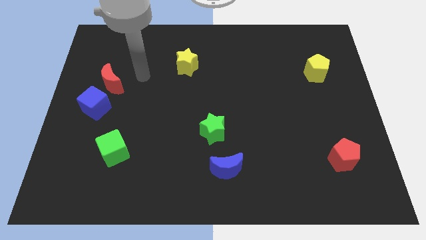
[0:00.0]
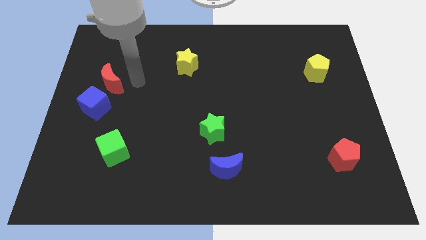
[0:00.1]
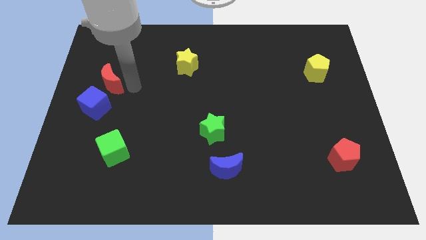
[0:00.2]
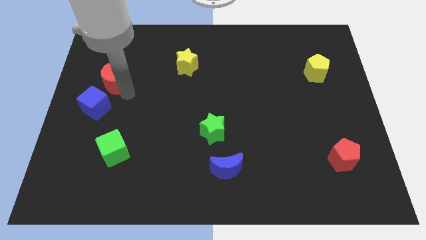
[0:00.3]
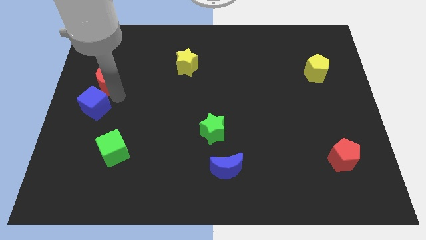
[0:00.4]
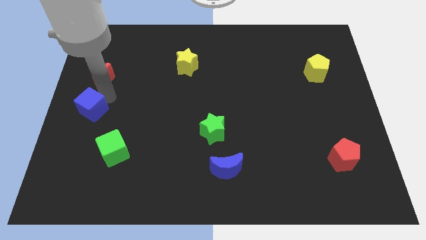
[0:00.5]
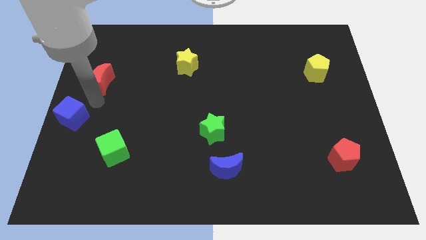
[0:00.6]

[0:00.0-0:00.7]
move the red moon away from the blue cube

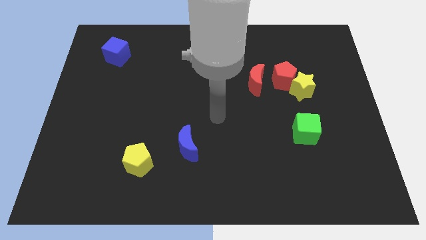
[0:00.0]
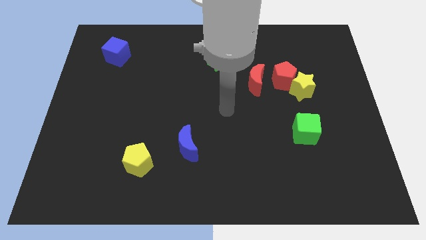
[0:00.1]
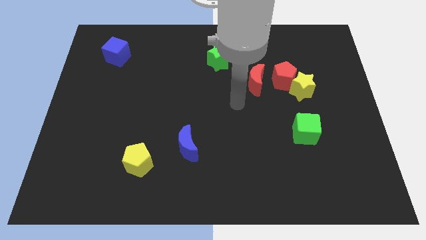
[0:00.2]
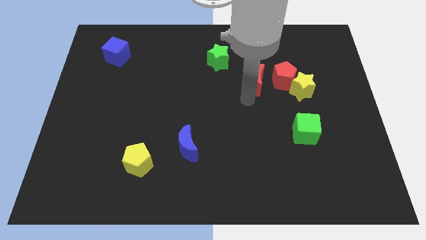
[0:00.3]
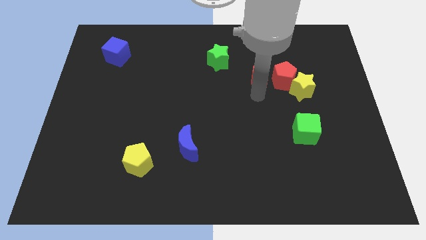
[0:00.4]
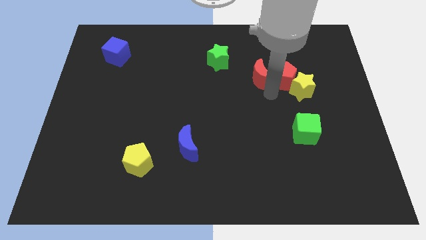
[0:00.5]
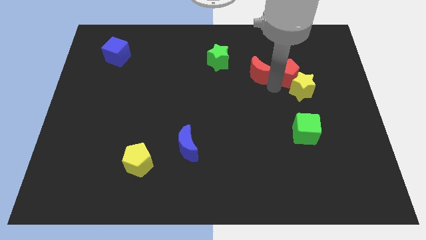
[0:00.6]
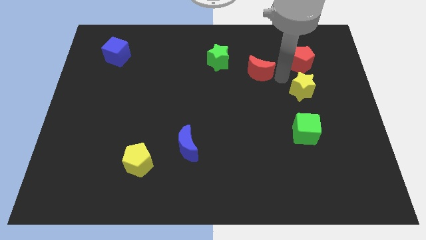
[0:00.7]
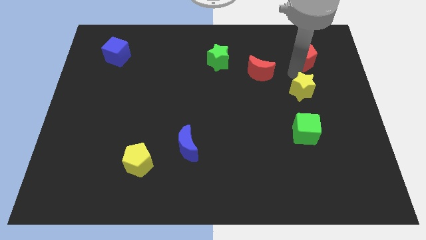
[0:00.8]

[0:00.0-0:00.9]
pull the yellow star apart from the red pentagon

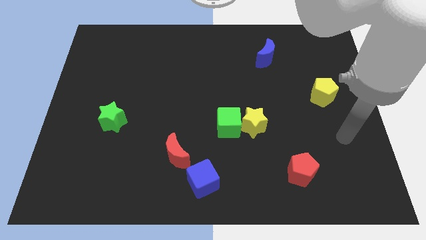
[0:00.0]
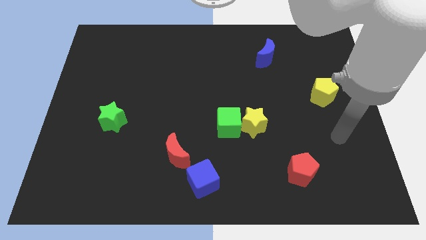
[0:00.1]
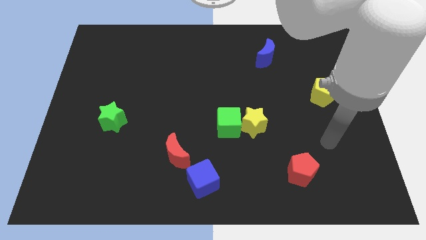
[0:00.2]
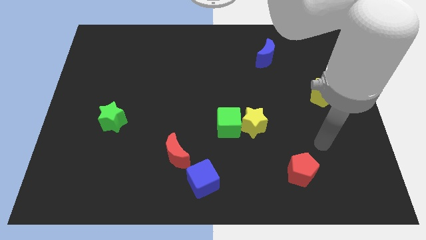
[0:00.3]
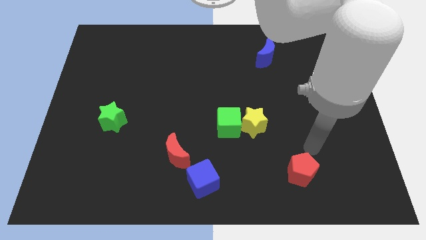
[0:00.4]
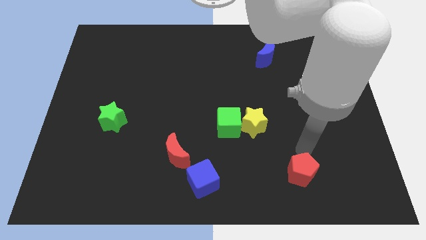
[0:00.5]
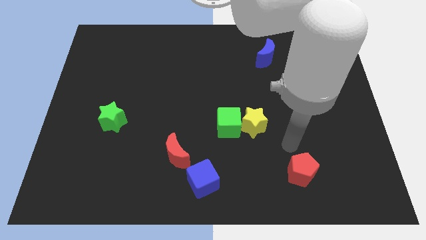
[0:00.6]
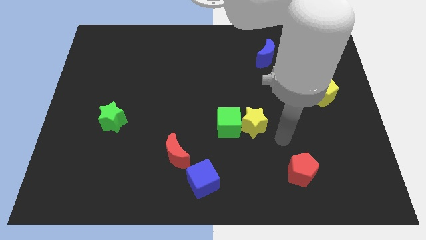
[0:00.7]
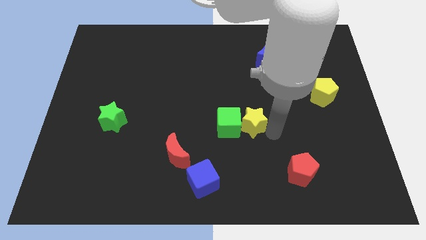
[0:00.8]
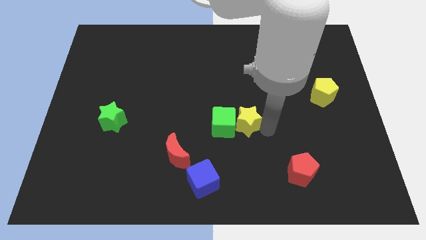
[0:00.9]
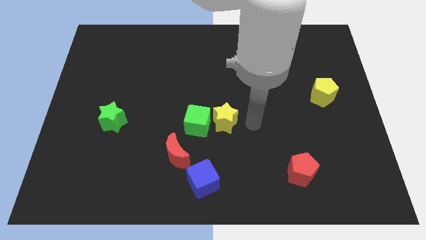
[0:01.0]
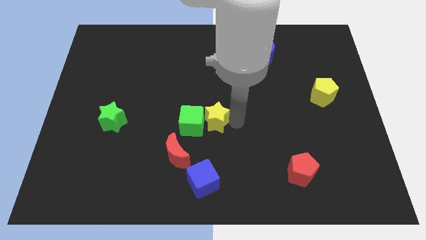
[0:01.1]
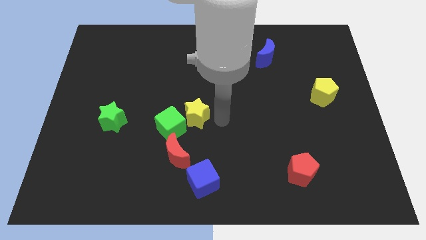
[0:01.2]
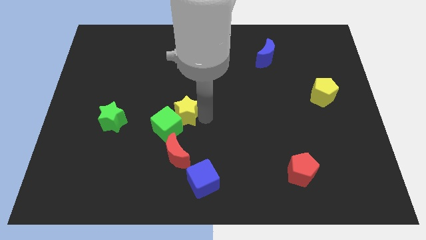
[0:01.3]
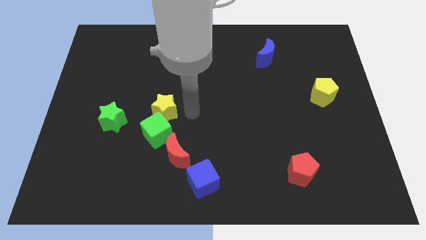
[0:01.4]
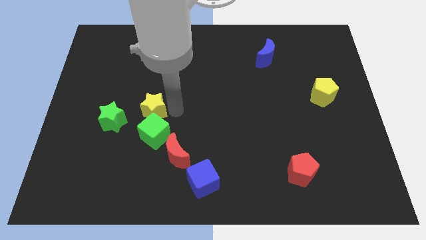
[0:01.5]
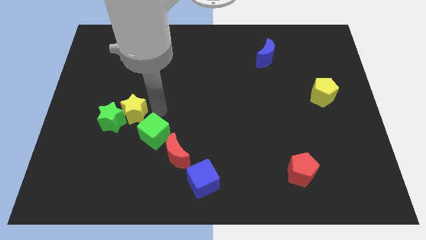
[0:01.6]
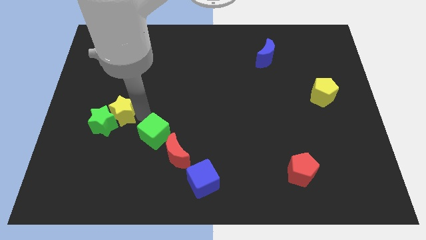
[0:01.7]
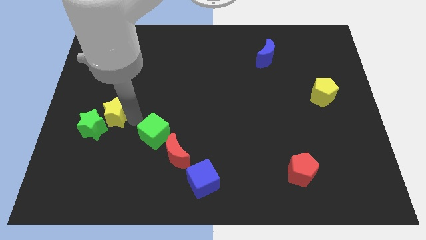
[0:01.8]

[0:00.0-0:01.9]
pull the green cube apart from the yellow star

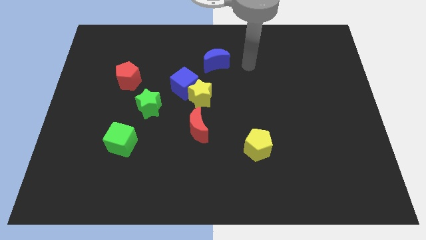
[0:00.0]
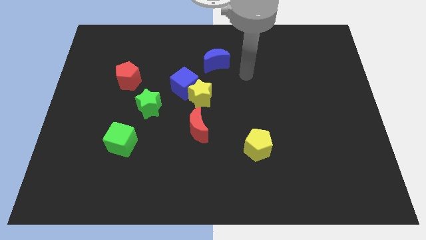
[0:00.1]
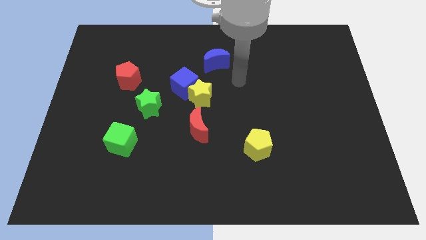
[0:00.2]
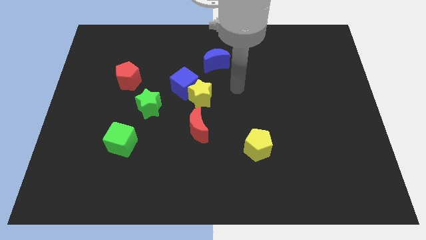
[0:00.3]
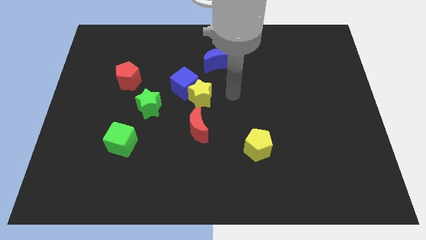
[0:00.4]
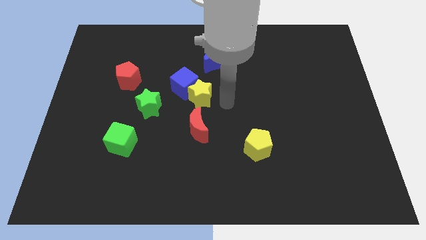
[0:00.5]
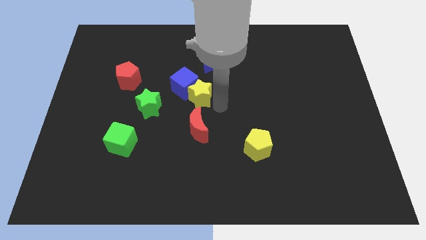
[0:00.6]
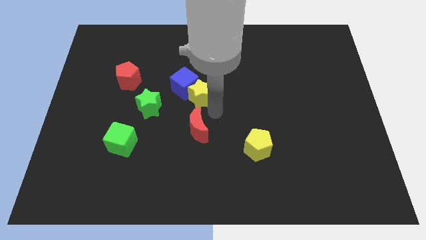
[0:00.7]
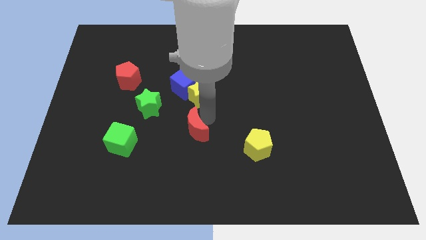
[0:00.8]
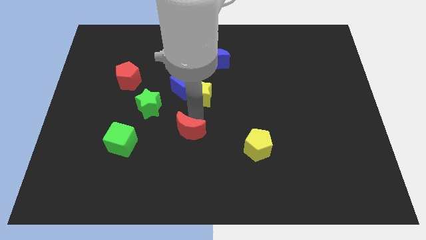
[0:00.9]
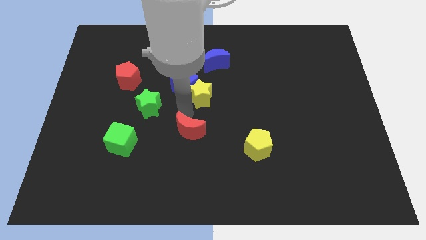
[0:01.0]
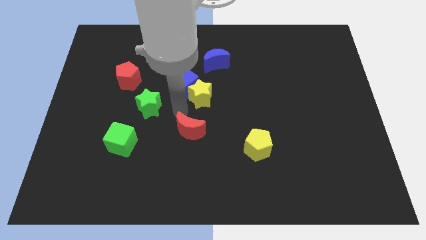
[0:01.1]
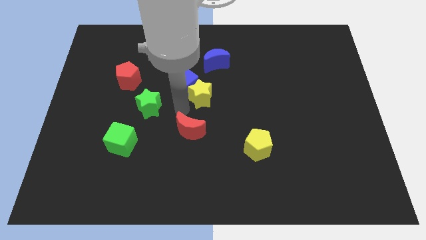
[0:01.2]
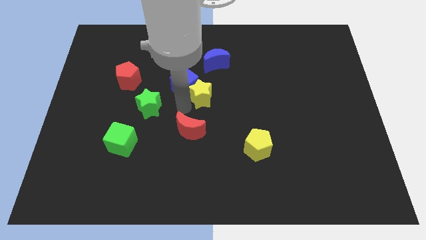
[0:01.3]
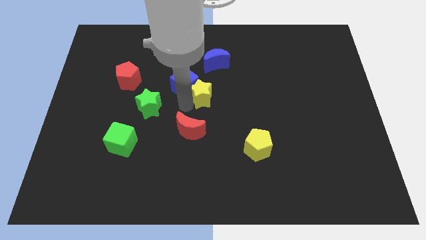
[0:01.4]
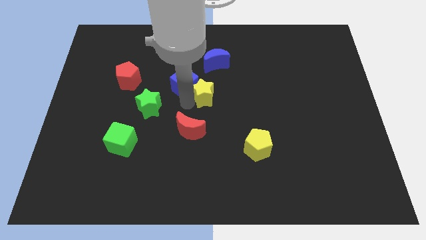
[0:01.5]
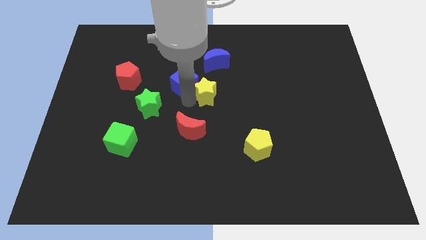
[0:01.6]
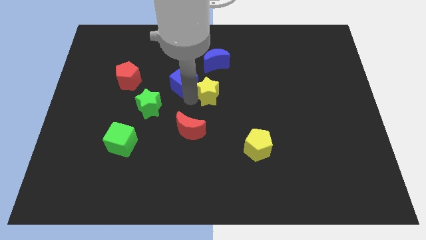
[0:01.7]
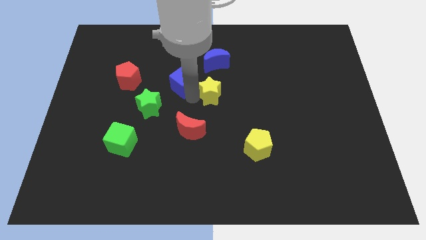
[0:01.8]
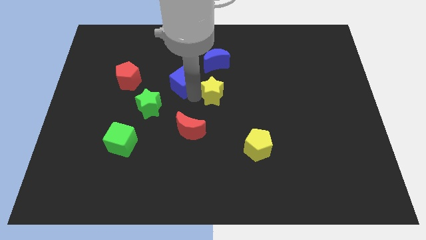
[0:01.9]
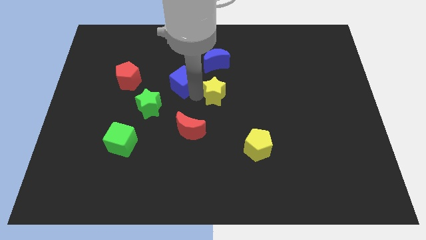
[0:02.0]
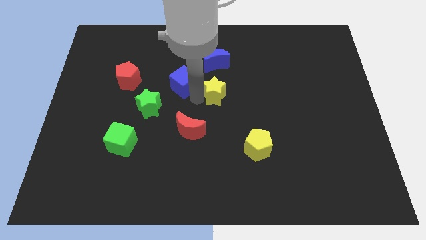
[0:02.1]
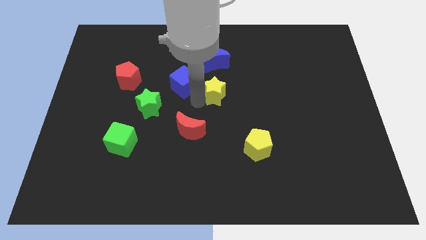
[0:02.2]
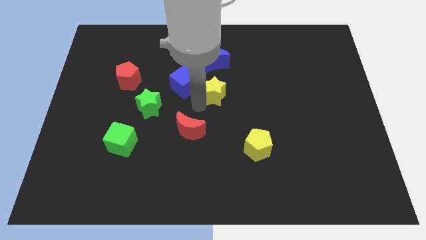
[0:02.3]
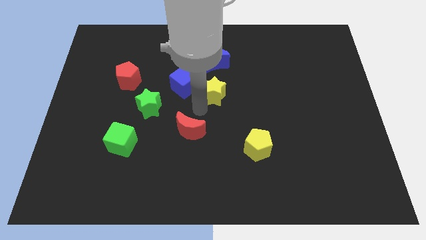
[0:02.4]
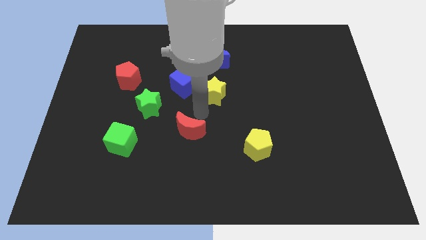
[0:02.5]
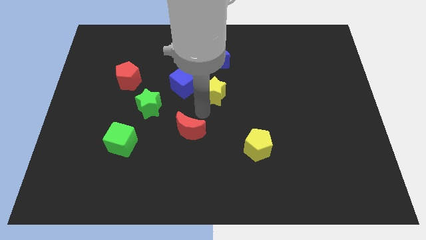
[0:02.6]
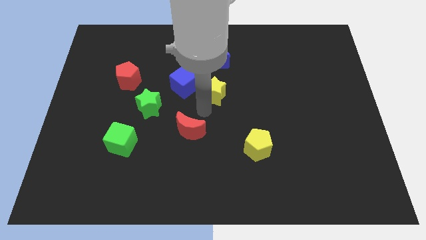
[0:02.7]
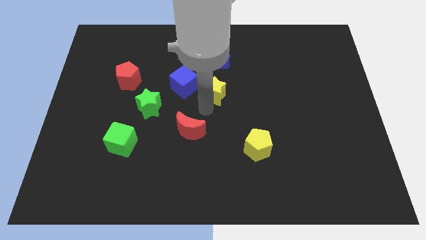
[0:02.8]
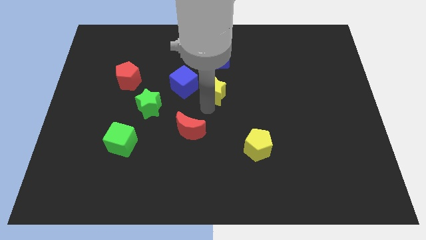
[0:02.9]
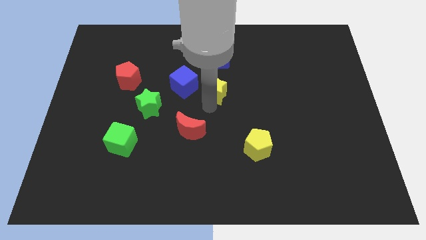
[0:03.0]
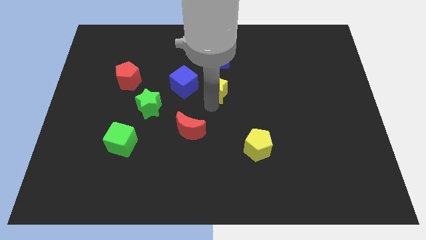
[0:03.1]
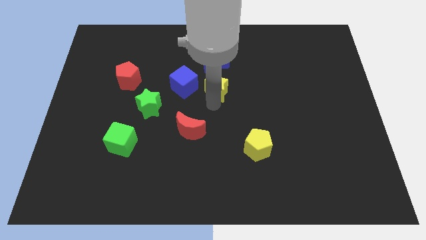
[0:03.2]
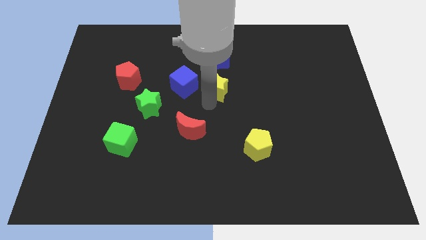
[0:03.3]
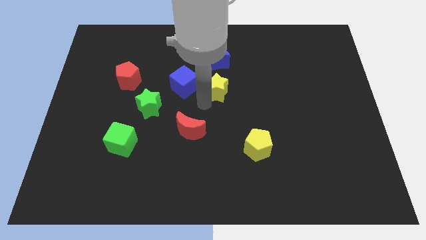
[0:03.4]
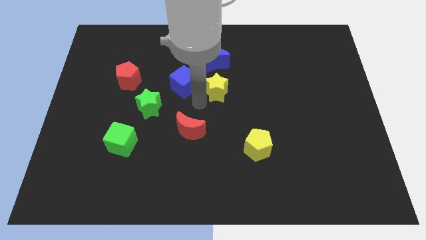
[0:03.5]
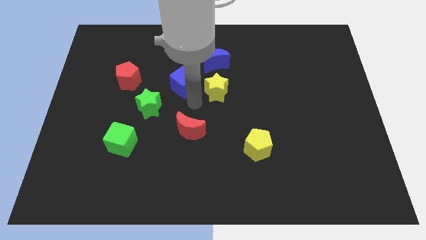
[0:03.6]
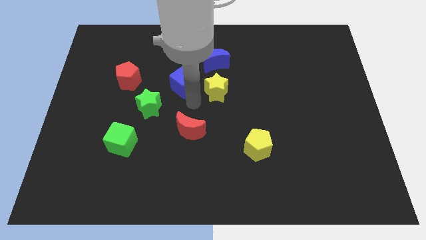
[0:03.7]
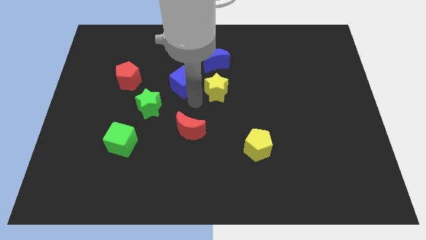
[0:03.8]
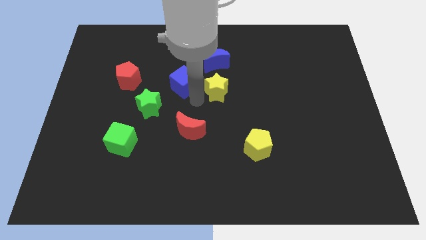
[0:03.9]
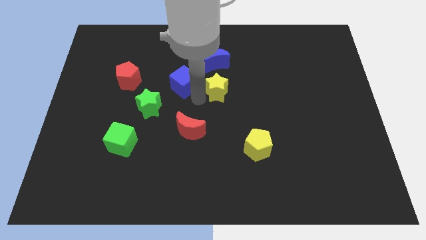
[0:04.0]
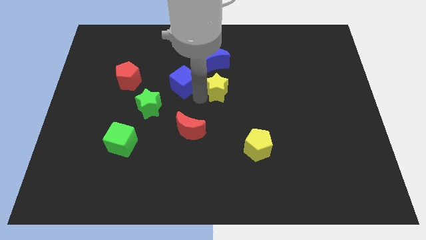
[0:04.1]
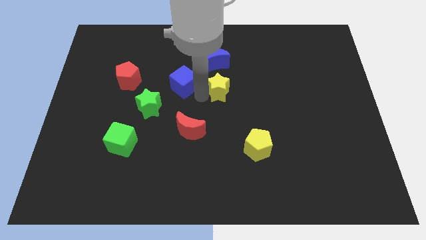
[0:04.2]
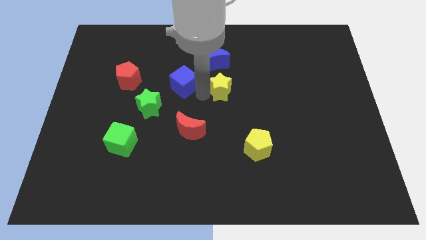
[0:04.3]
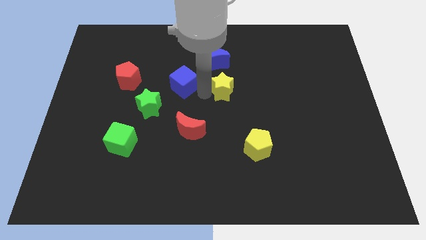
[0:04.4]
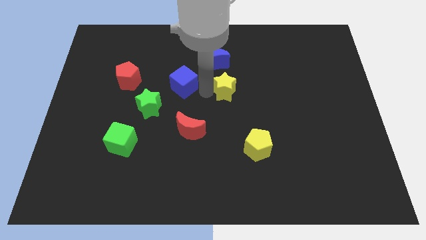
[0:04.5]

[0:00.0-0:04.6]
move the yellow star away from the blue cube and red moon

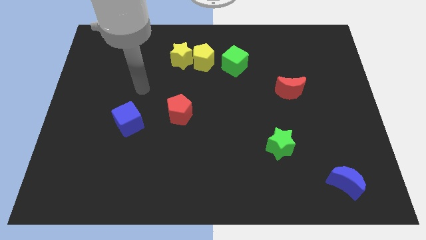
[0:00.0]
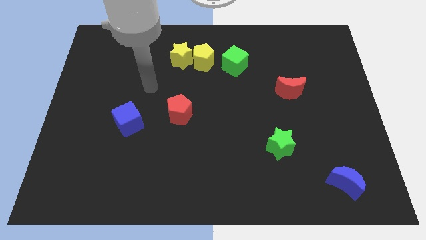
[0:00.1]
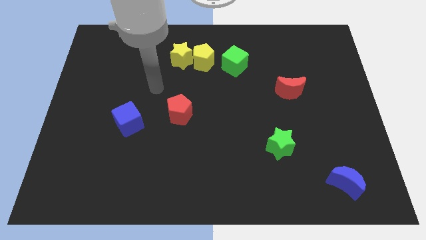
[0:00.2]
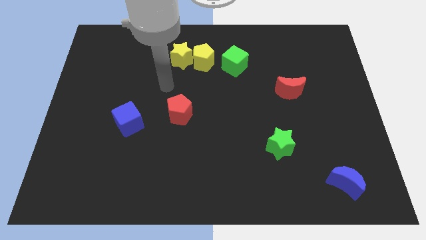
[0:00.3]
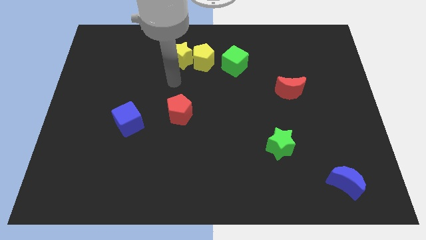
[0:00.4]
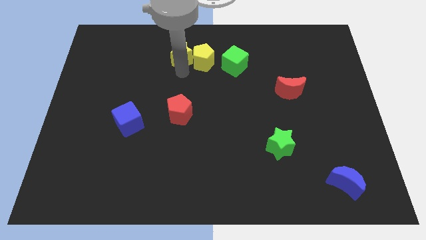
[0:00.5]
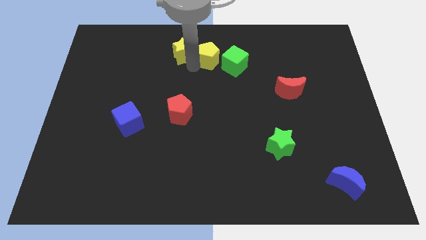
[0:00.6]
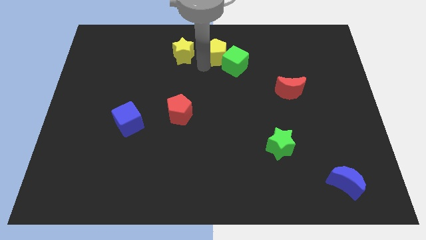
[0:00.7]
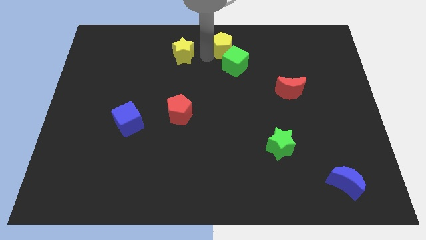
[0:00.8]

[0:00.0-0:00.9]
separate the yellow star from the yellow pentagon

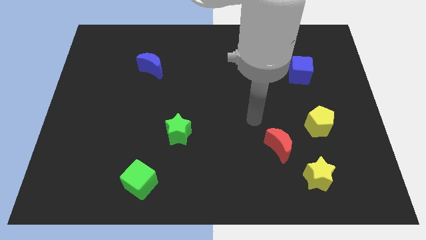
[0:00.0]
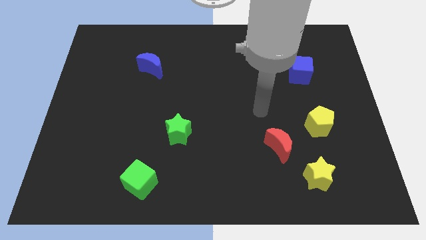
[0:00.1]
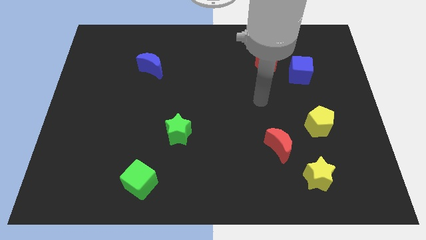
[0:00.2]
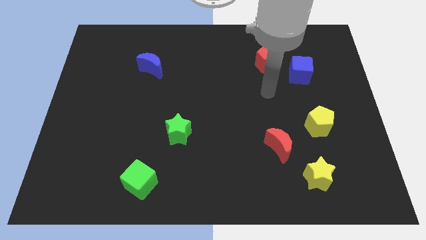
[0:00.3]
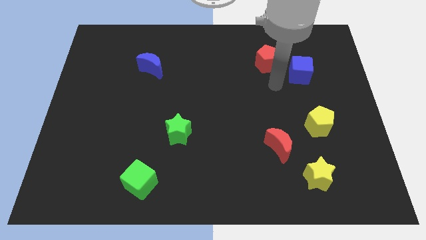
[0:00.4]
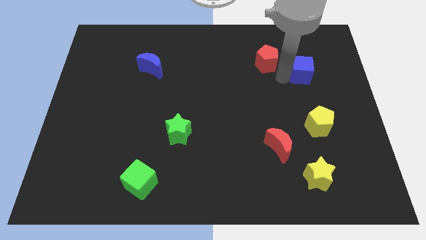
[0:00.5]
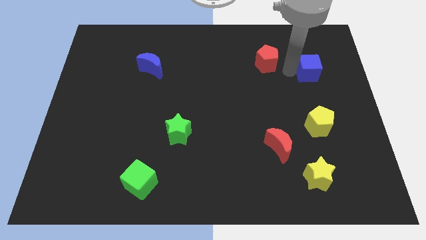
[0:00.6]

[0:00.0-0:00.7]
pull the red pentagon apart from the blue cube
